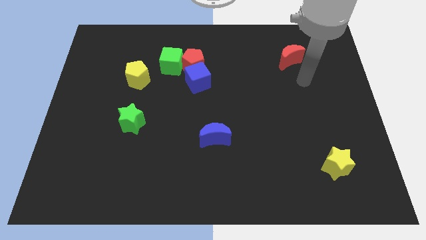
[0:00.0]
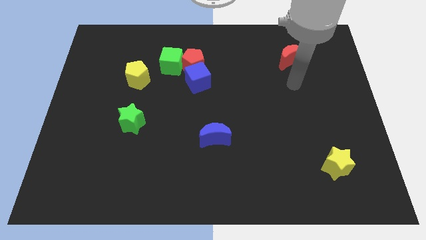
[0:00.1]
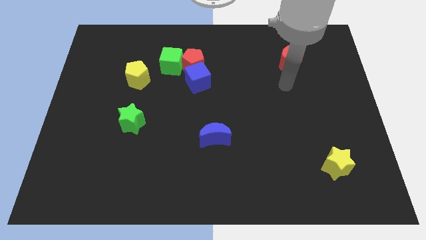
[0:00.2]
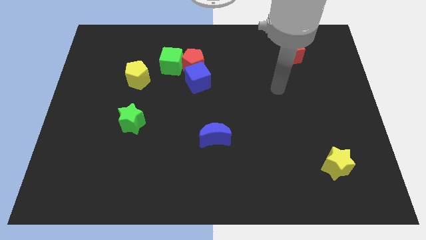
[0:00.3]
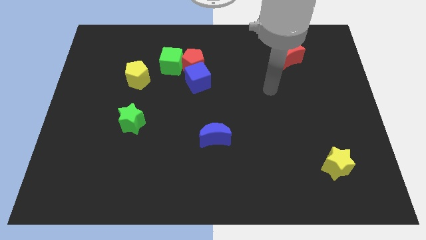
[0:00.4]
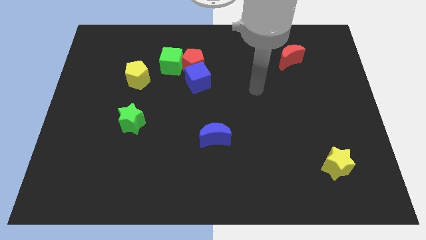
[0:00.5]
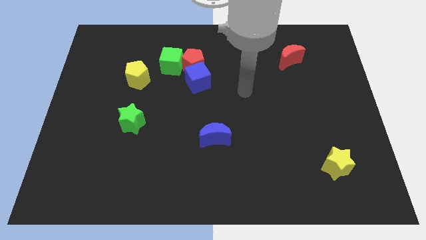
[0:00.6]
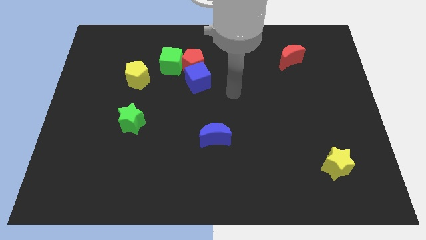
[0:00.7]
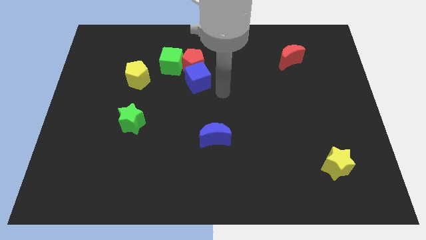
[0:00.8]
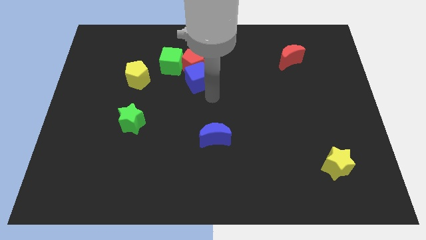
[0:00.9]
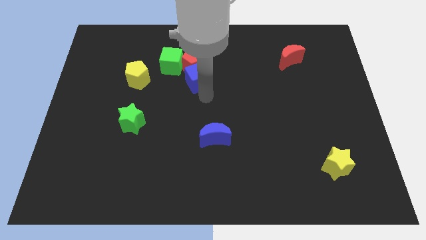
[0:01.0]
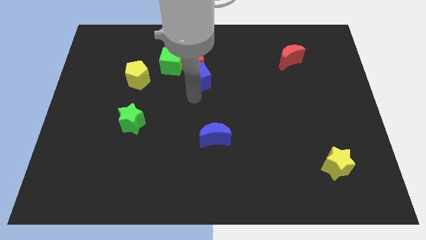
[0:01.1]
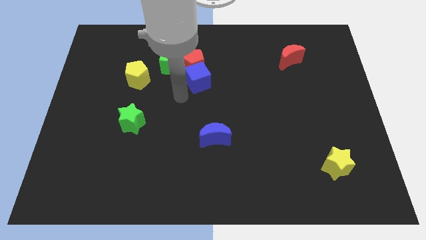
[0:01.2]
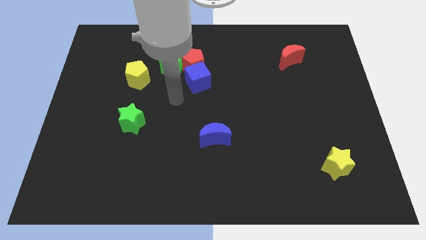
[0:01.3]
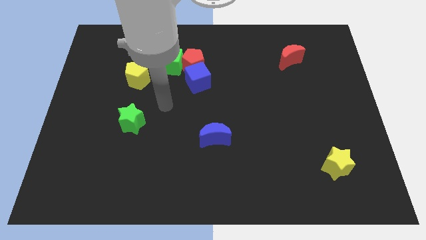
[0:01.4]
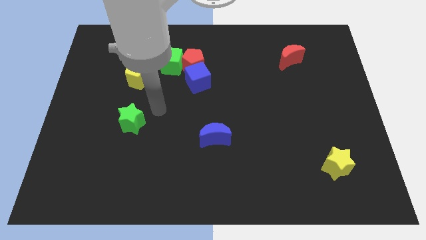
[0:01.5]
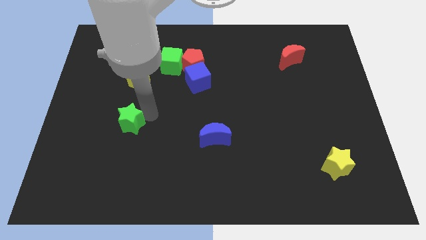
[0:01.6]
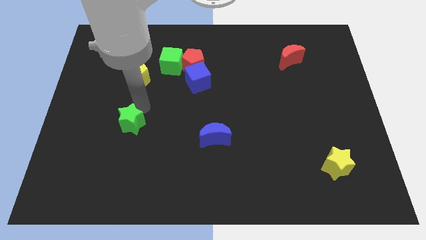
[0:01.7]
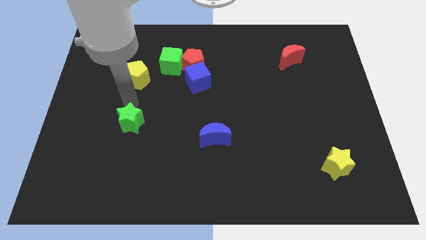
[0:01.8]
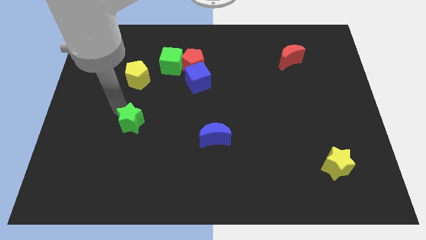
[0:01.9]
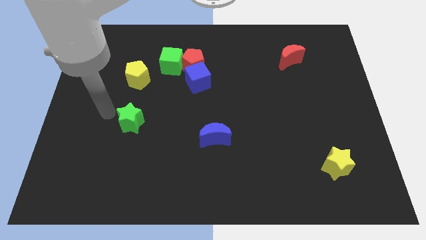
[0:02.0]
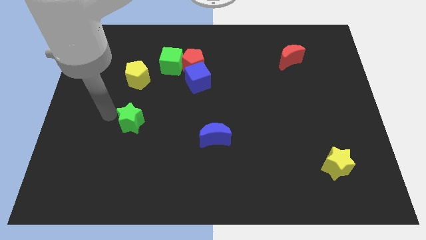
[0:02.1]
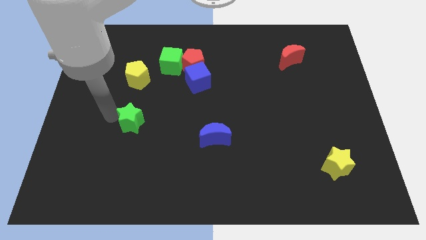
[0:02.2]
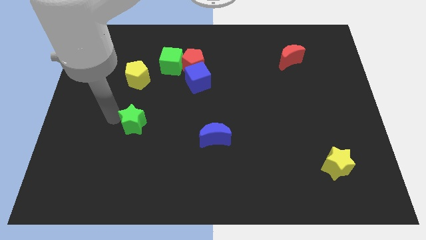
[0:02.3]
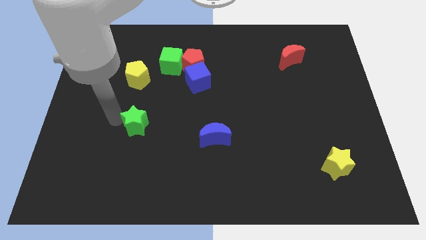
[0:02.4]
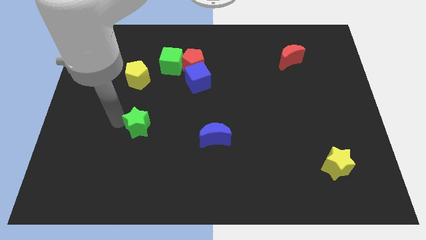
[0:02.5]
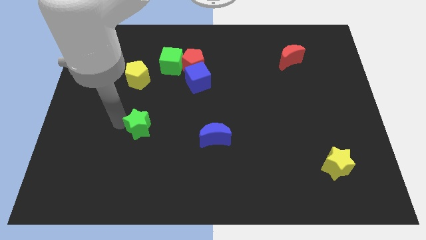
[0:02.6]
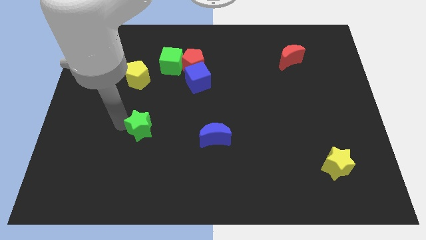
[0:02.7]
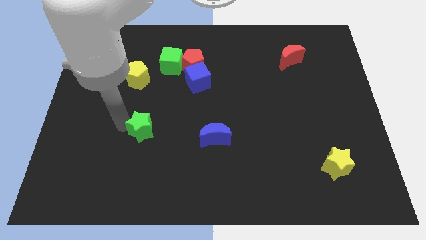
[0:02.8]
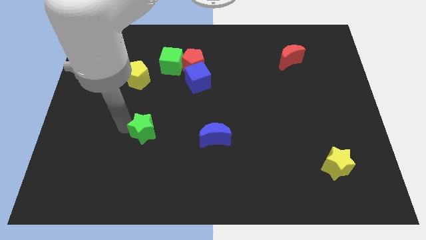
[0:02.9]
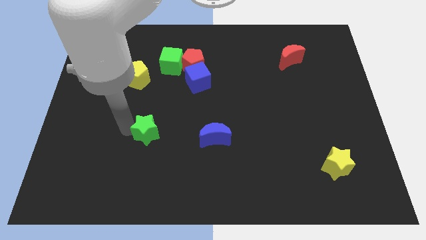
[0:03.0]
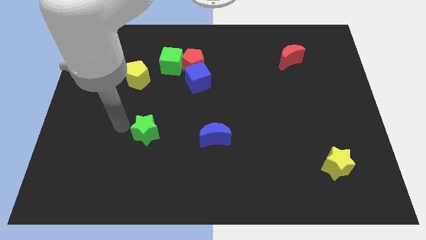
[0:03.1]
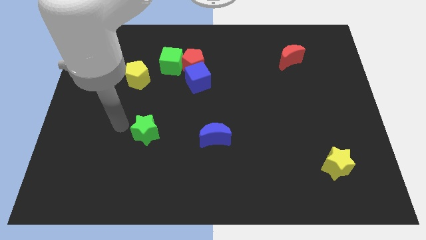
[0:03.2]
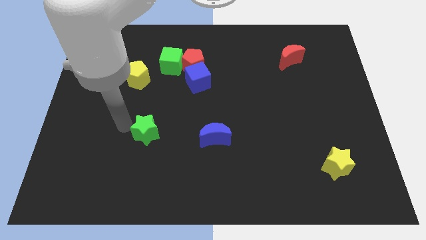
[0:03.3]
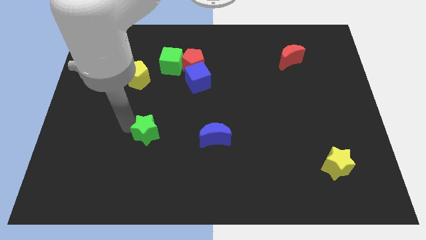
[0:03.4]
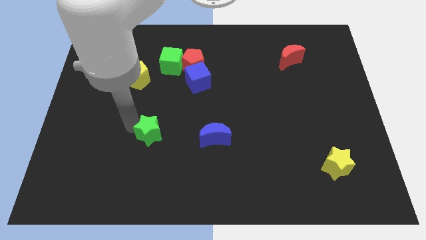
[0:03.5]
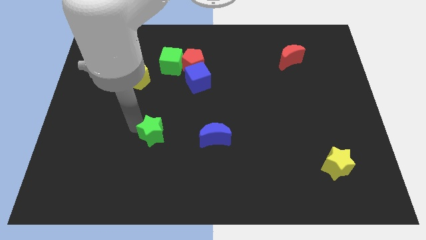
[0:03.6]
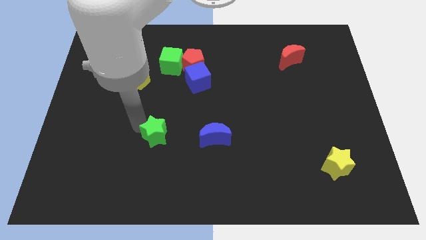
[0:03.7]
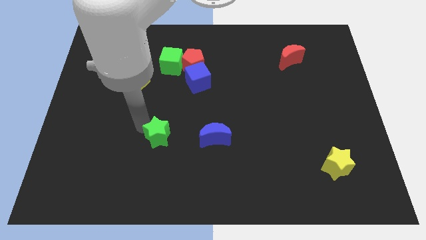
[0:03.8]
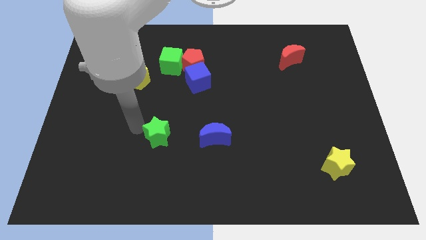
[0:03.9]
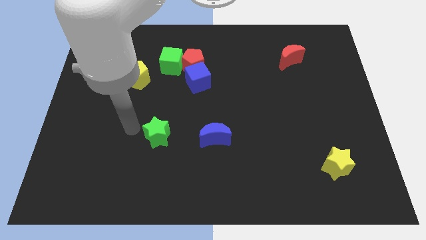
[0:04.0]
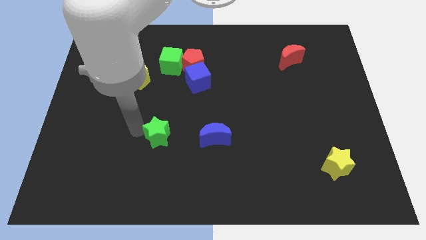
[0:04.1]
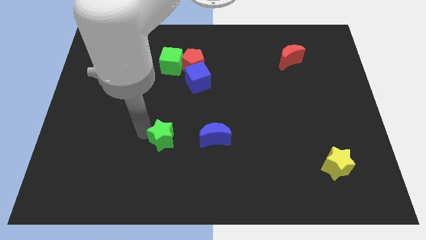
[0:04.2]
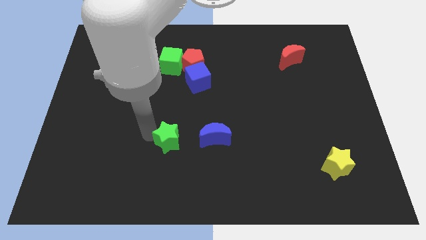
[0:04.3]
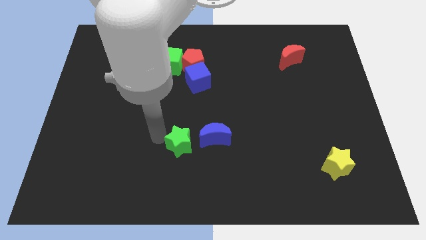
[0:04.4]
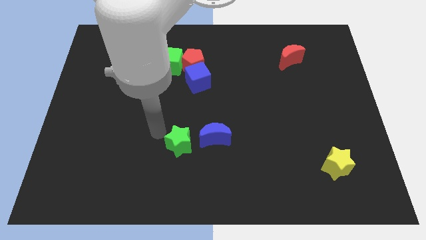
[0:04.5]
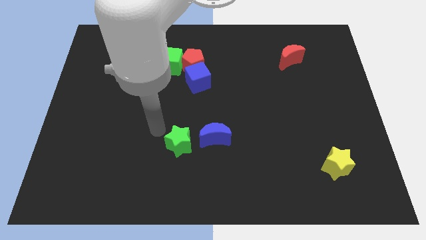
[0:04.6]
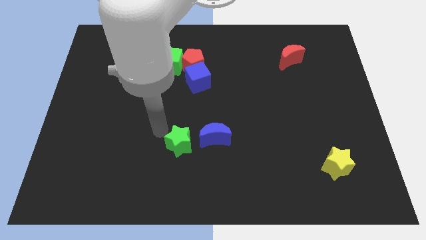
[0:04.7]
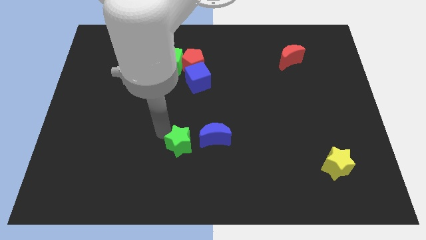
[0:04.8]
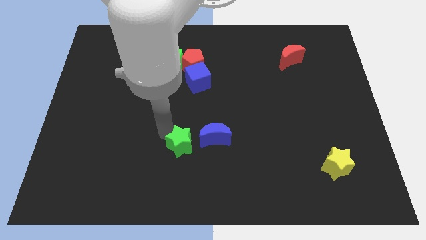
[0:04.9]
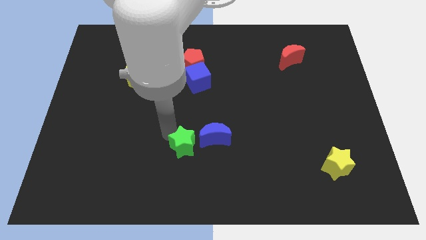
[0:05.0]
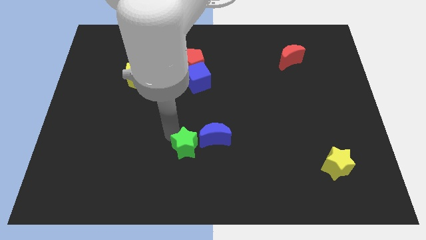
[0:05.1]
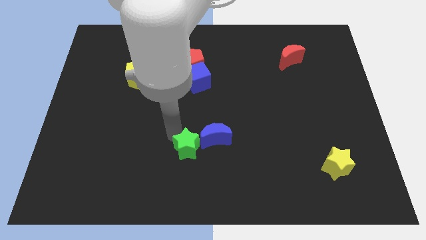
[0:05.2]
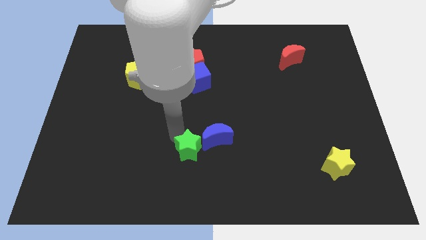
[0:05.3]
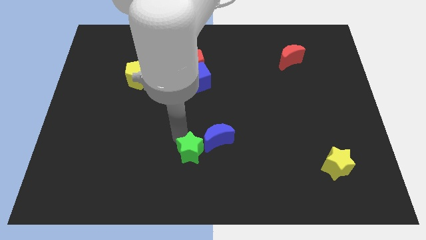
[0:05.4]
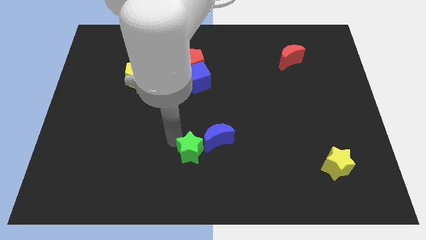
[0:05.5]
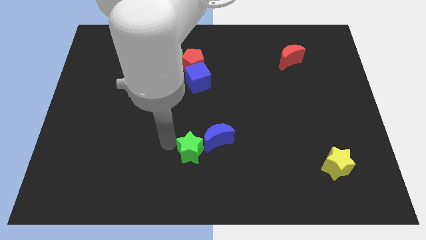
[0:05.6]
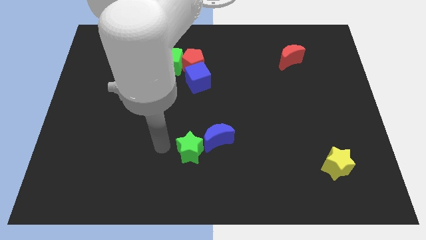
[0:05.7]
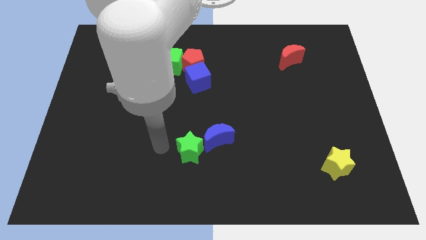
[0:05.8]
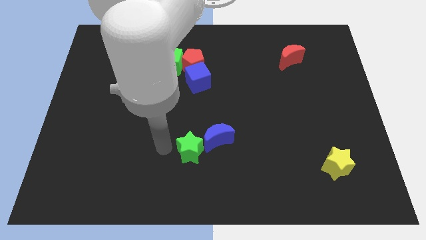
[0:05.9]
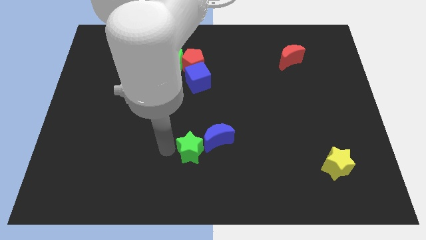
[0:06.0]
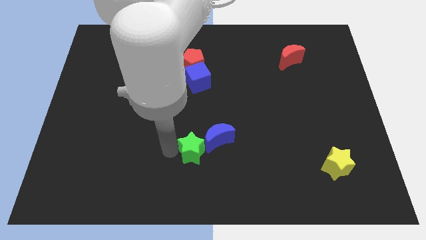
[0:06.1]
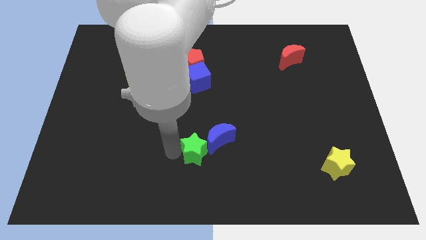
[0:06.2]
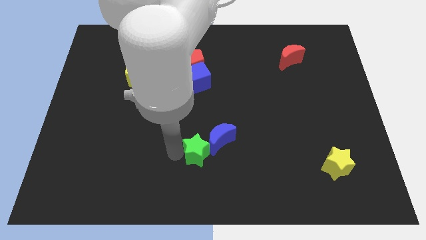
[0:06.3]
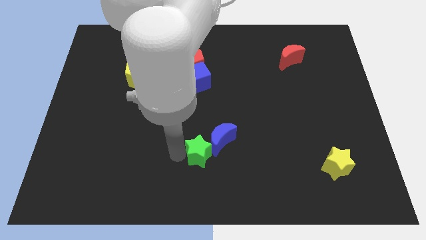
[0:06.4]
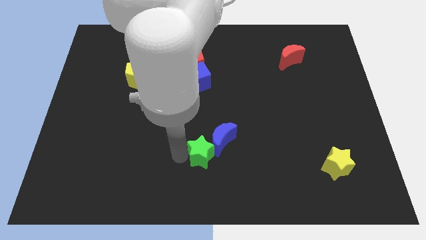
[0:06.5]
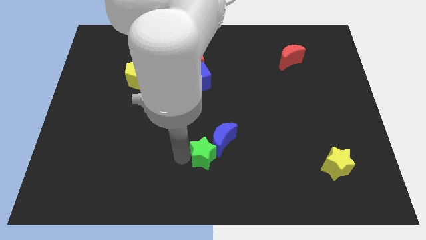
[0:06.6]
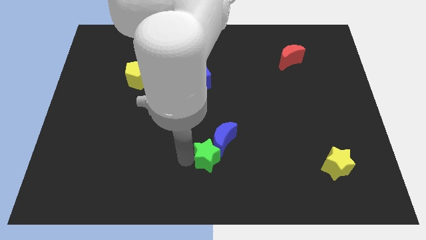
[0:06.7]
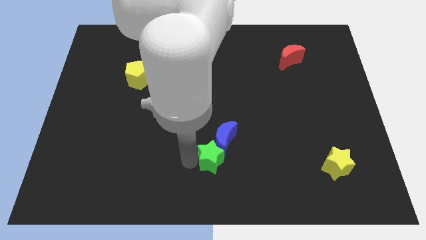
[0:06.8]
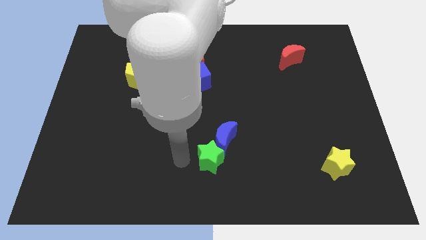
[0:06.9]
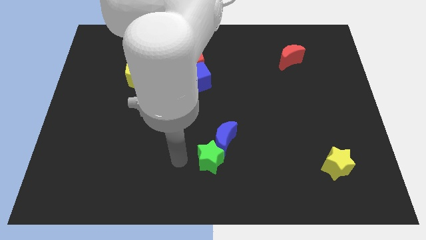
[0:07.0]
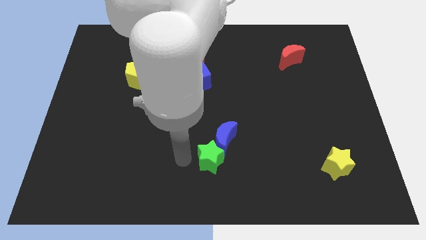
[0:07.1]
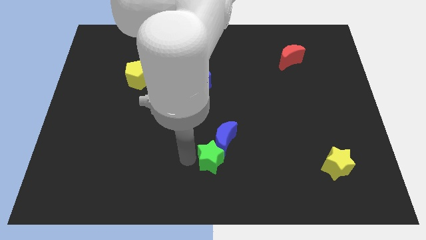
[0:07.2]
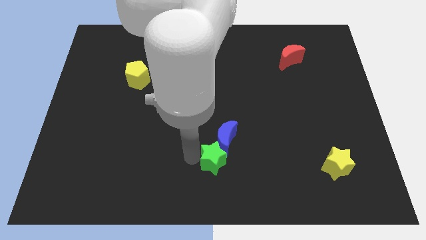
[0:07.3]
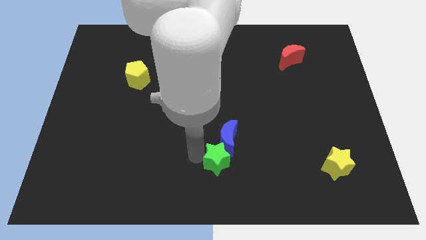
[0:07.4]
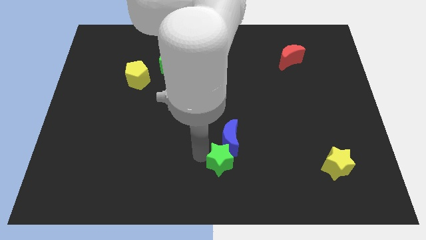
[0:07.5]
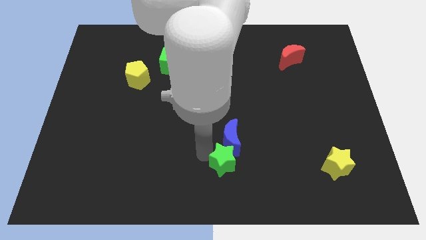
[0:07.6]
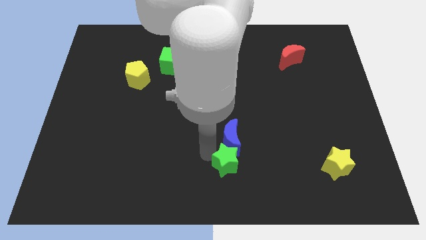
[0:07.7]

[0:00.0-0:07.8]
move the green star to the bottom right of the blue moon
